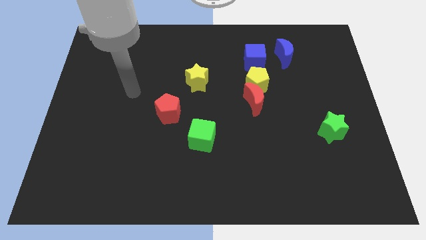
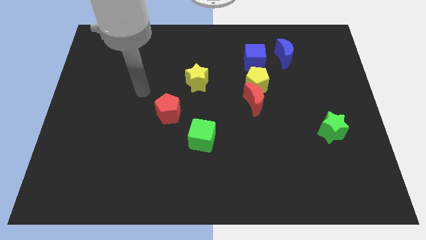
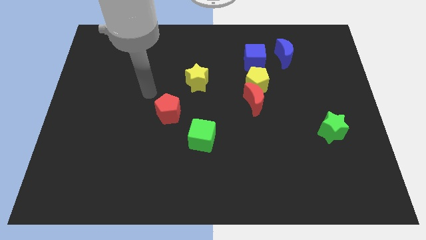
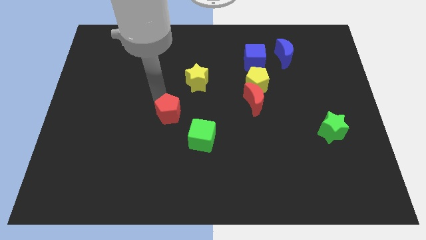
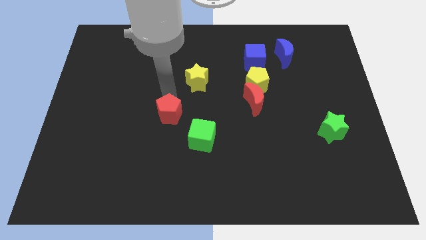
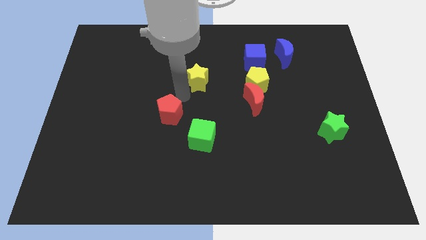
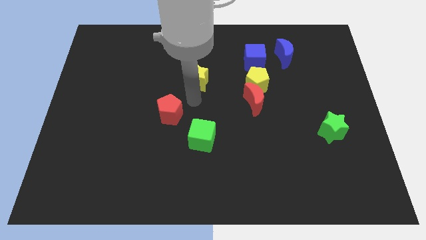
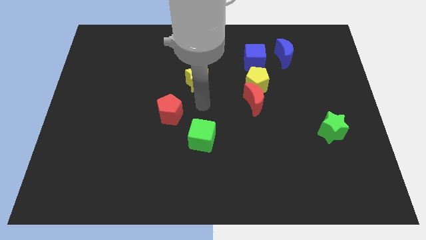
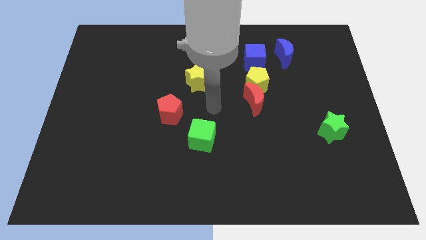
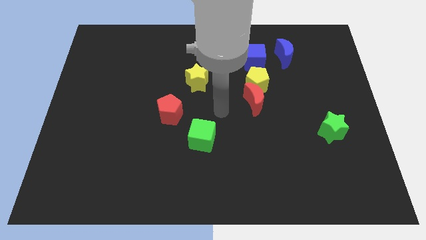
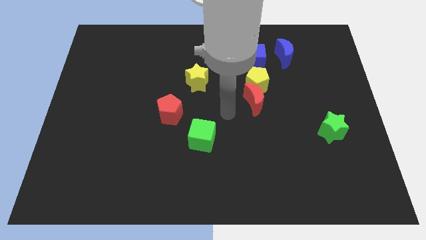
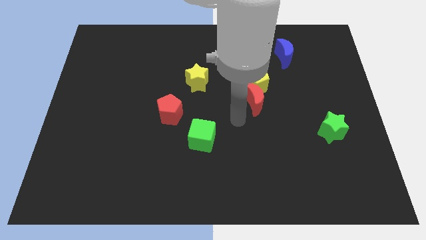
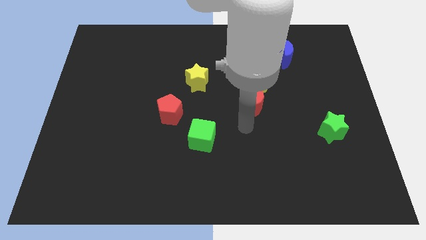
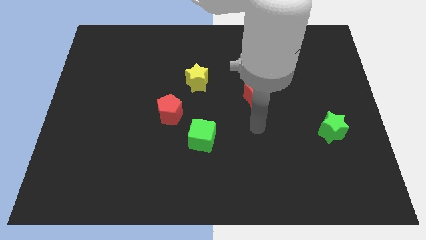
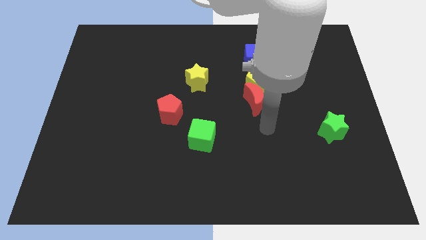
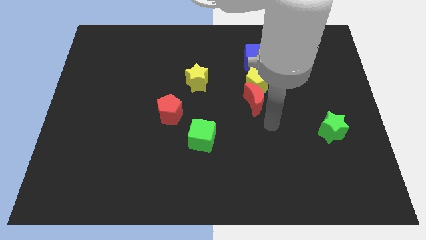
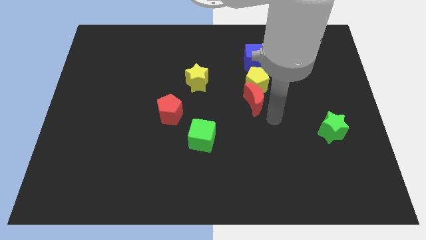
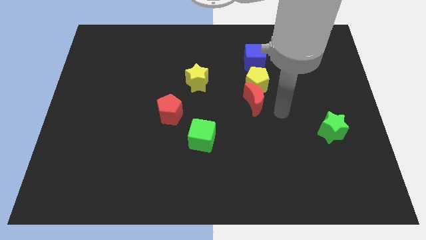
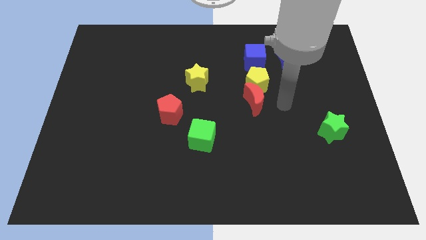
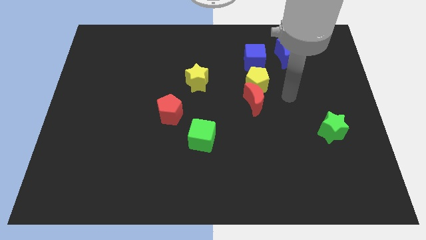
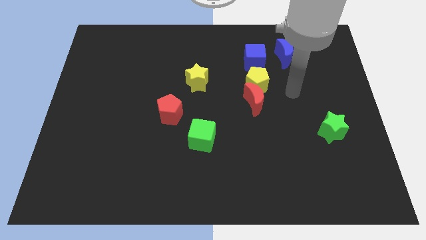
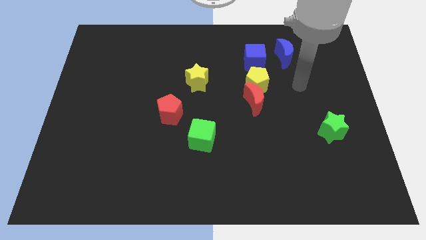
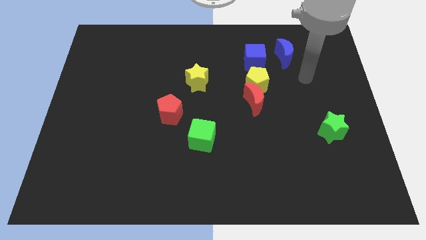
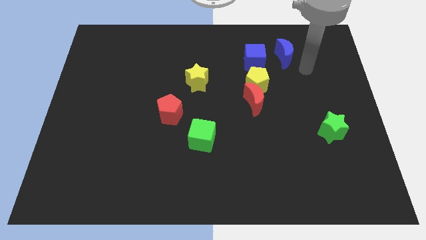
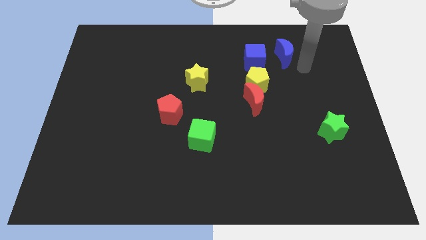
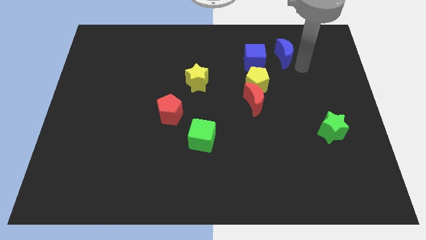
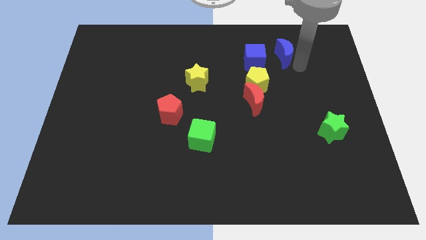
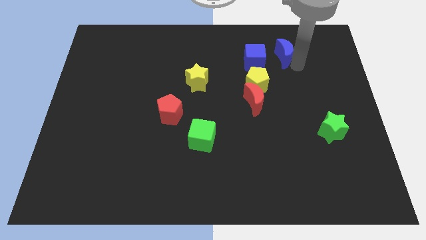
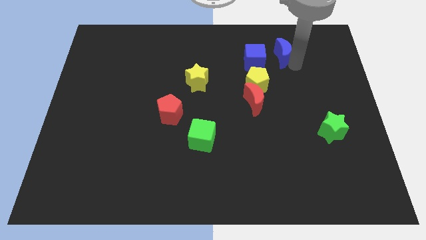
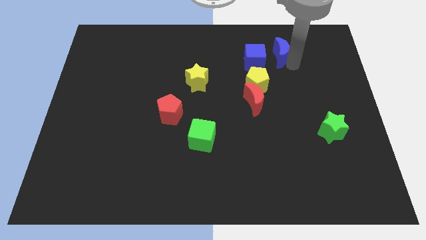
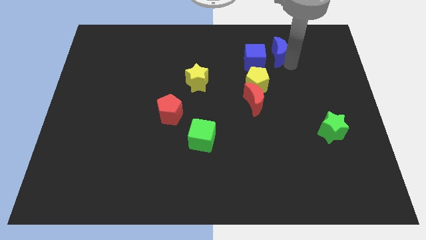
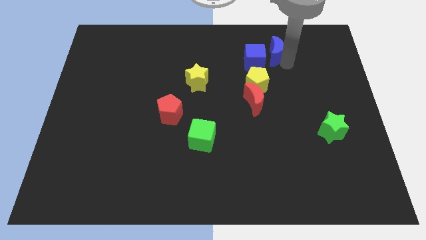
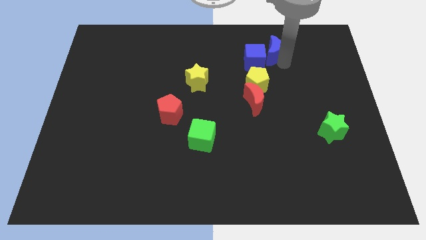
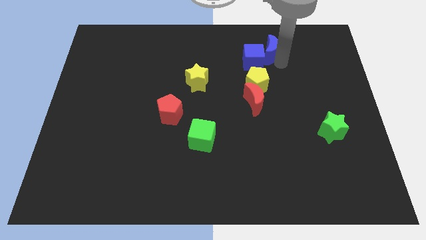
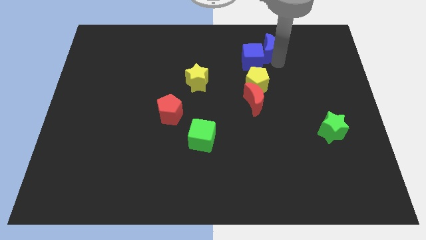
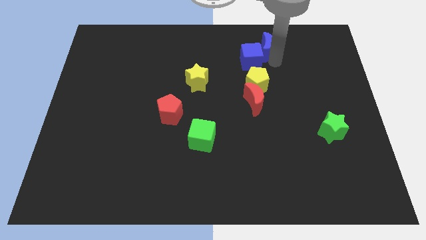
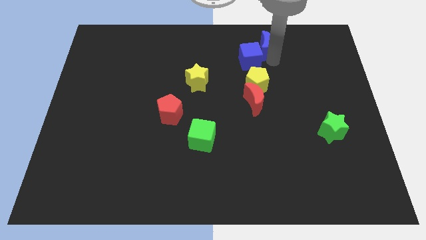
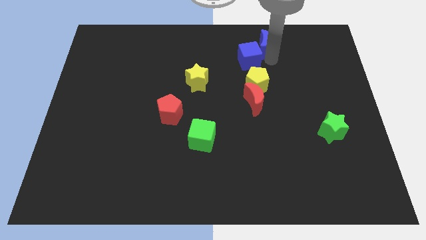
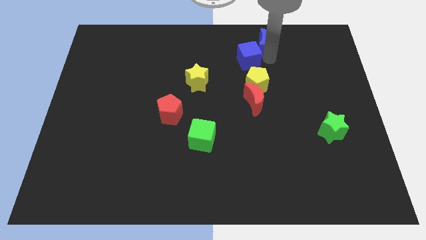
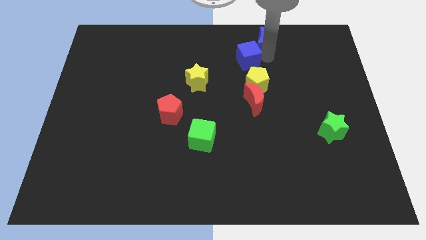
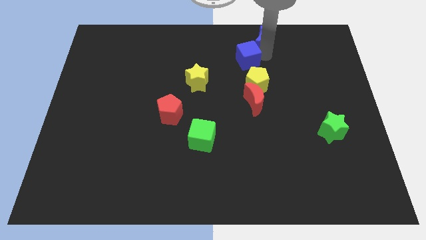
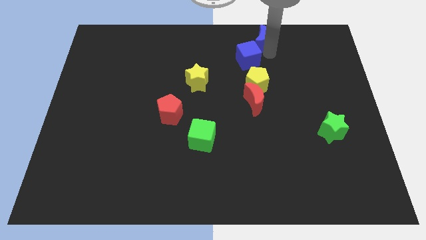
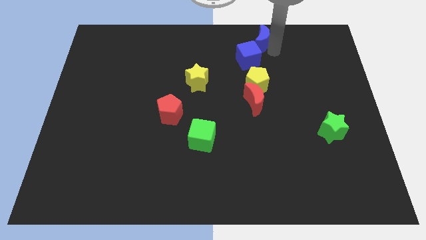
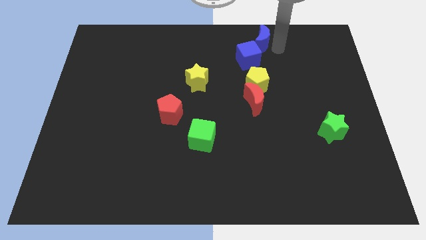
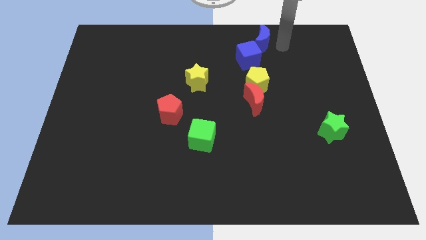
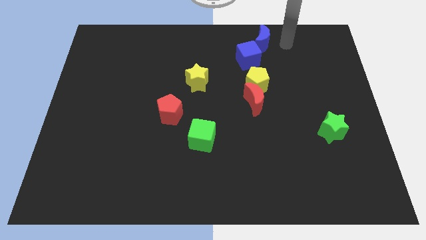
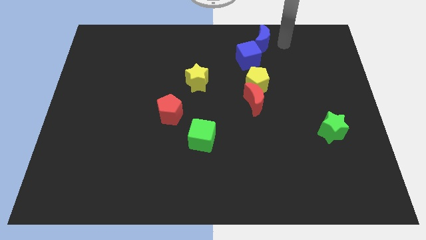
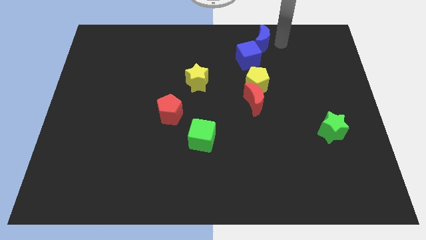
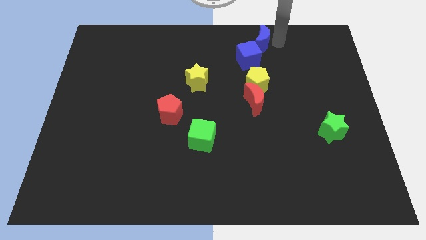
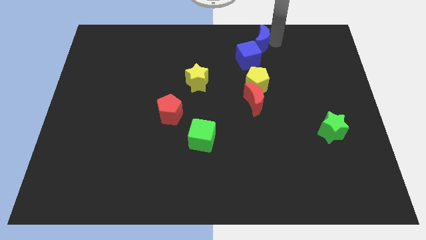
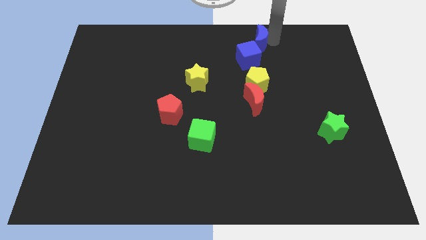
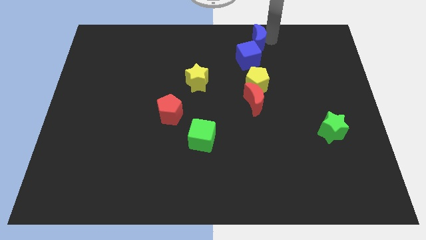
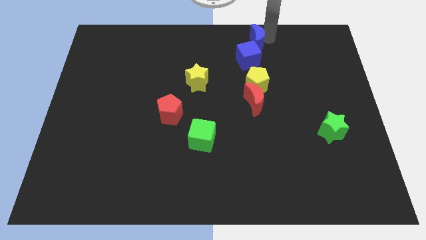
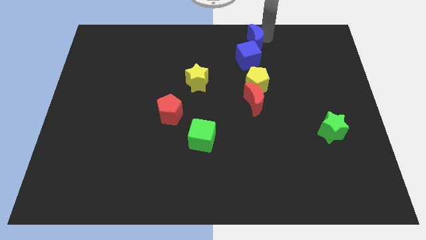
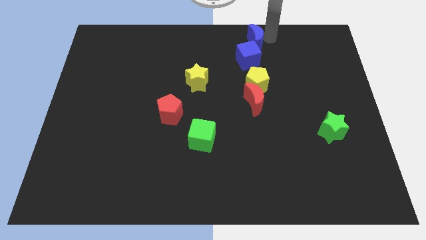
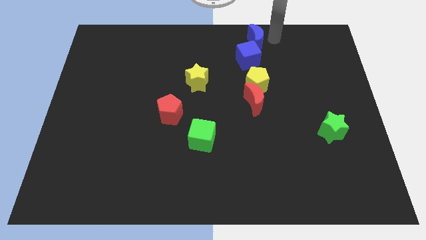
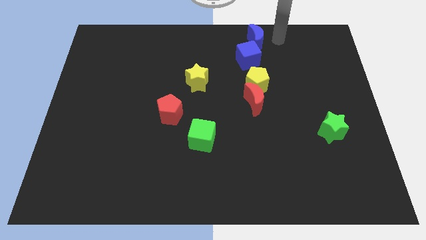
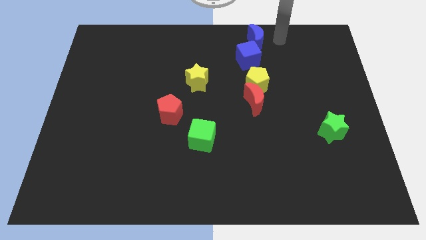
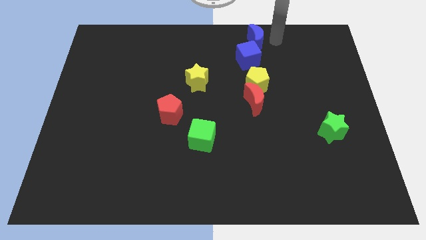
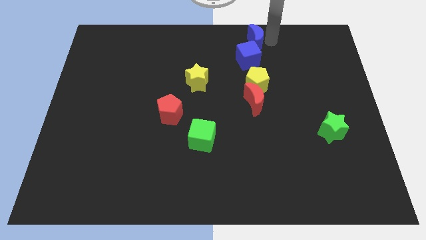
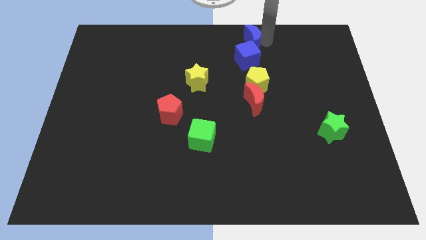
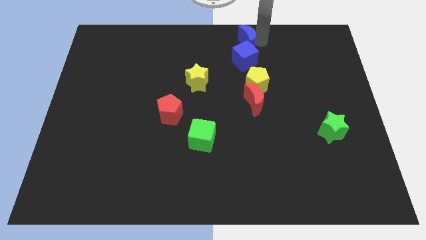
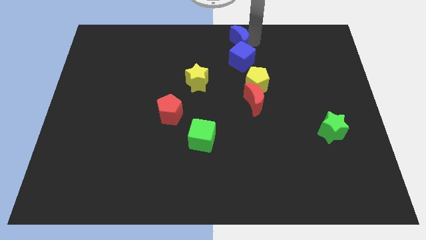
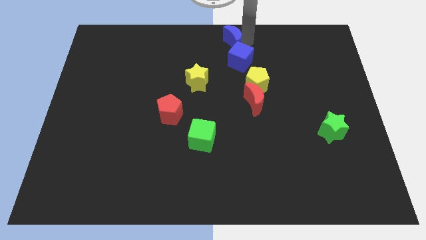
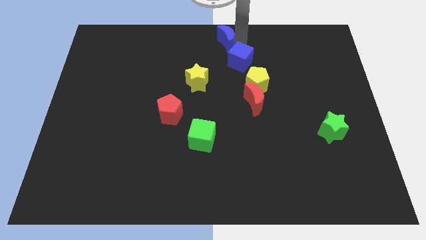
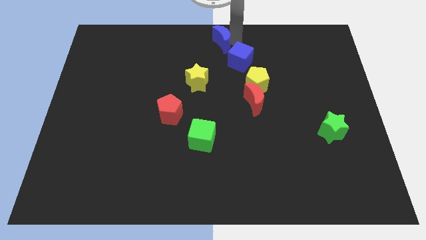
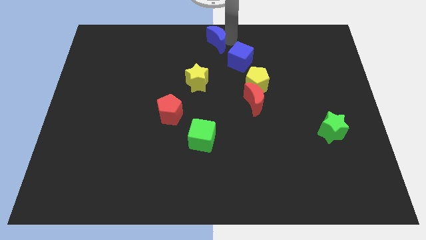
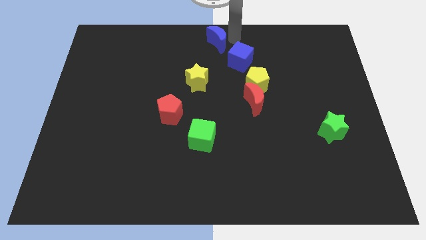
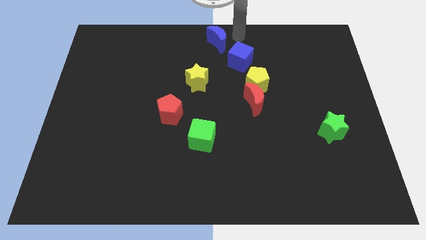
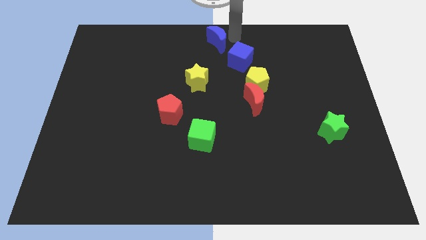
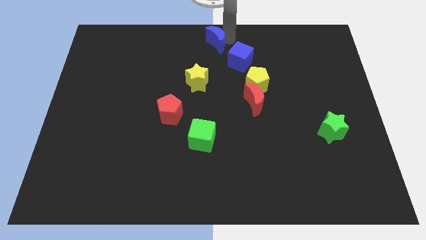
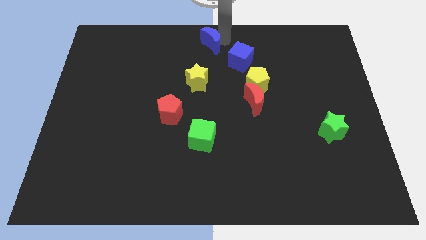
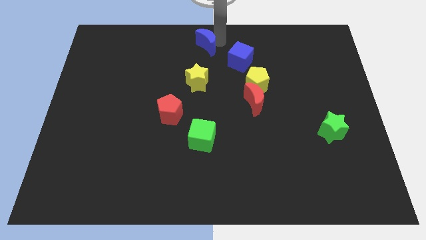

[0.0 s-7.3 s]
move the blue moon left

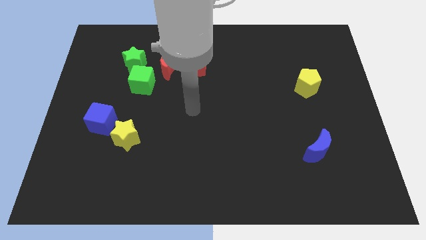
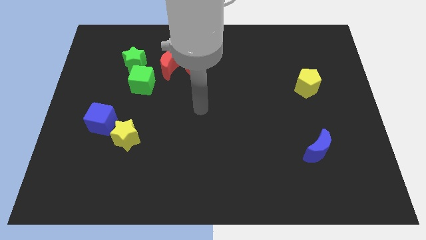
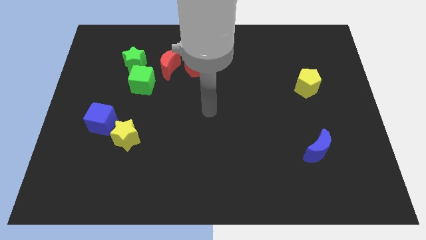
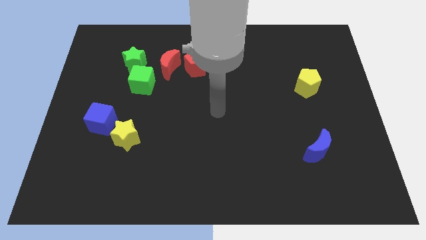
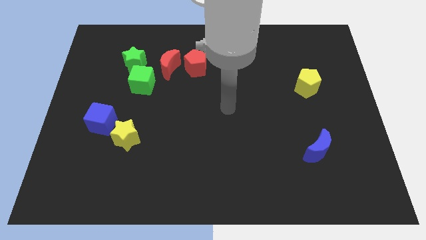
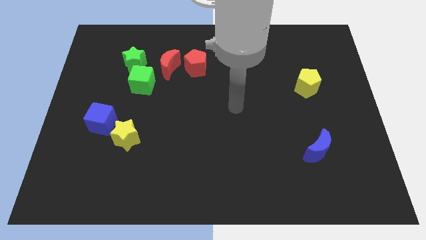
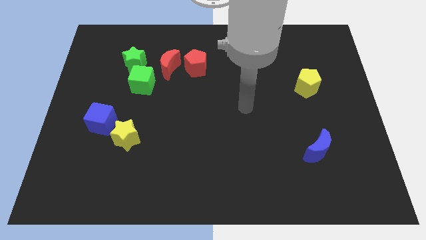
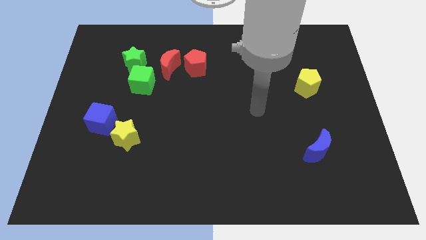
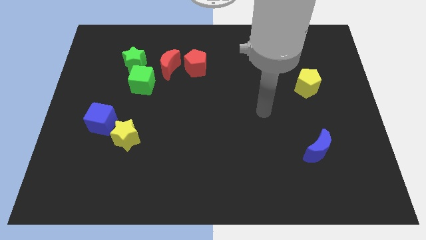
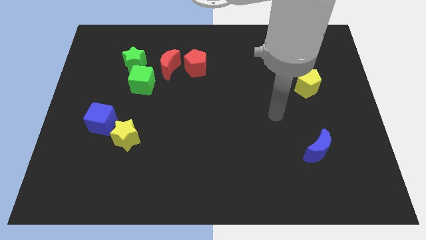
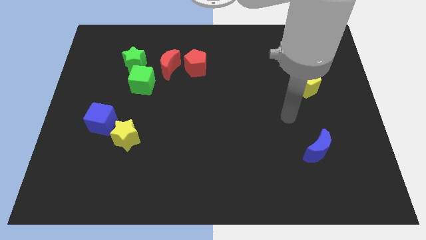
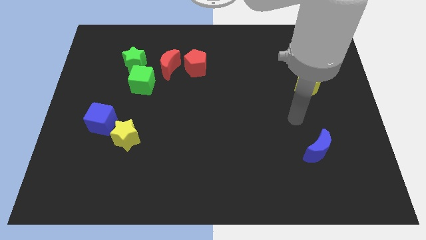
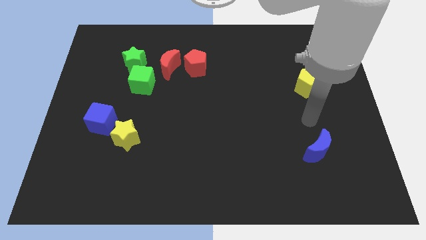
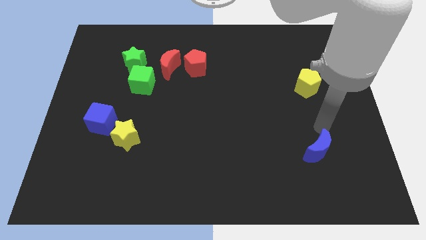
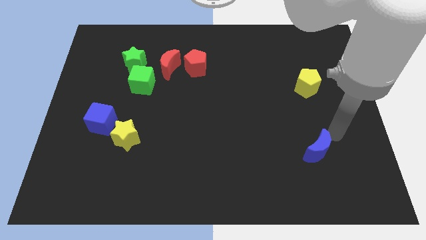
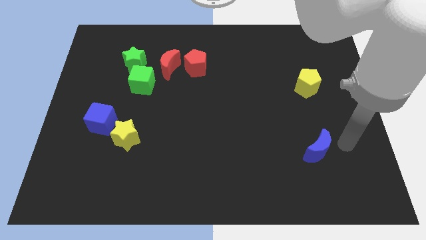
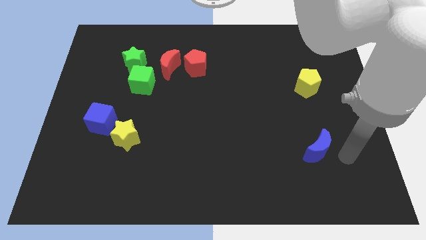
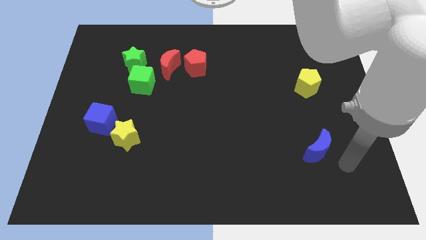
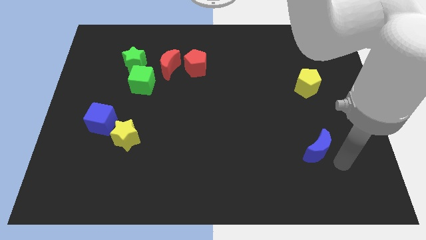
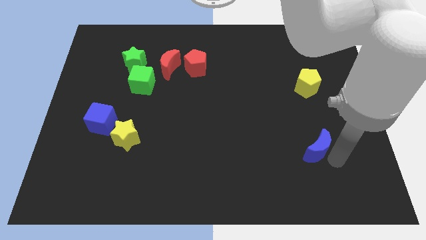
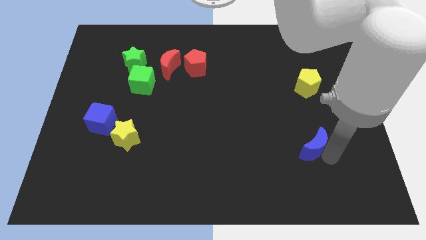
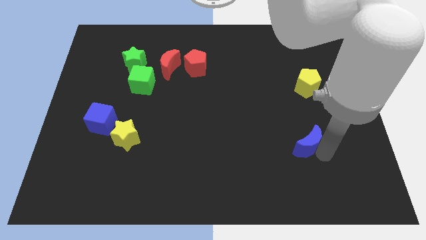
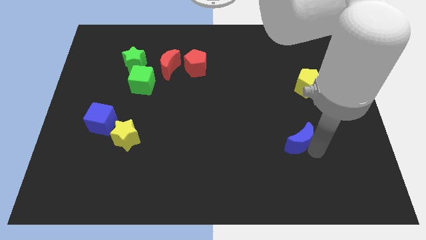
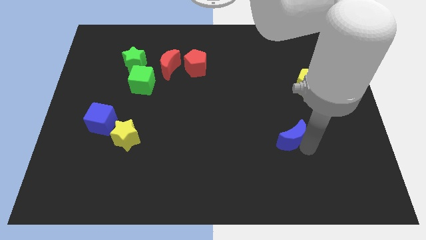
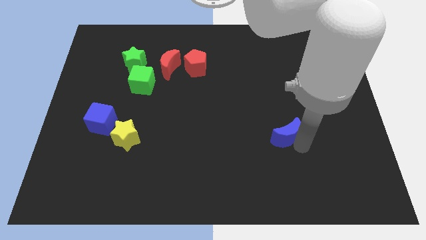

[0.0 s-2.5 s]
push the blue moon a little upwards and to the left diagonally
